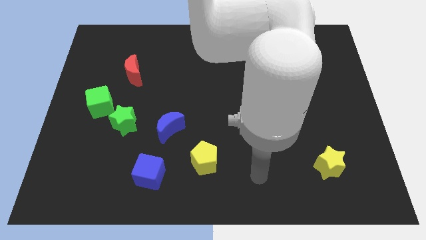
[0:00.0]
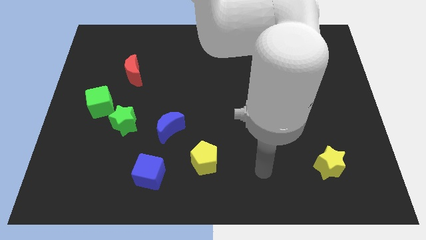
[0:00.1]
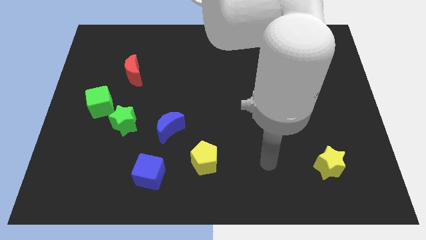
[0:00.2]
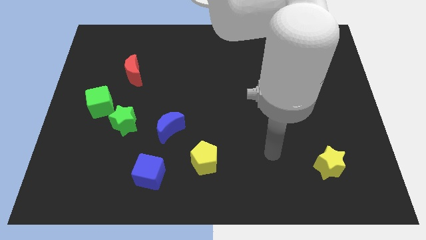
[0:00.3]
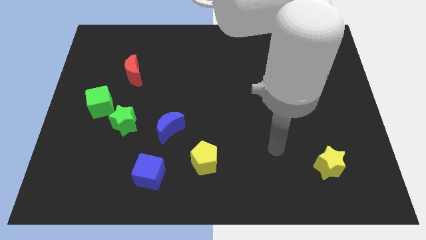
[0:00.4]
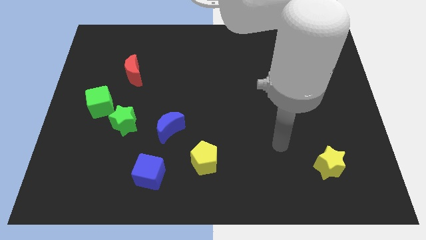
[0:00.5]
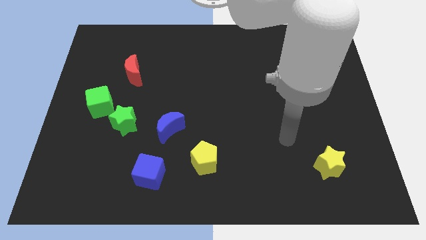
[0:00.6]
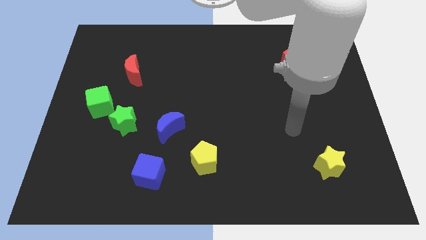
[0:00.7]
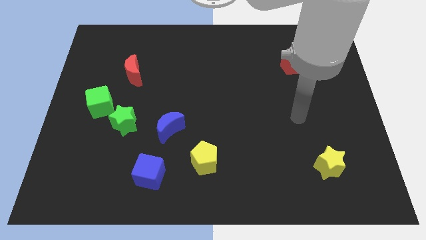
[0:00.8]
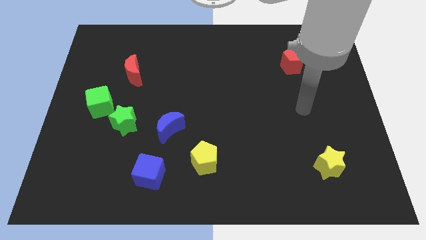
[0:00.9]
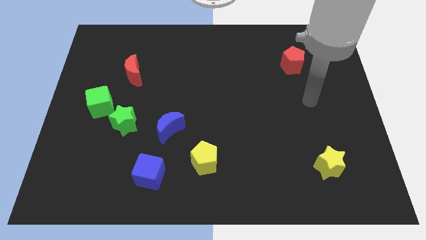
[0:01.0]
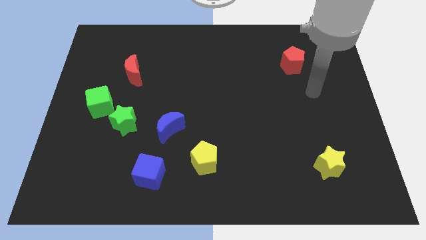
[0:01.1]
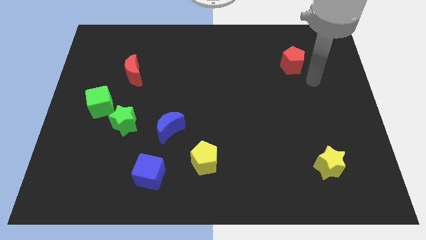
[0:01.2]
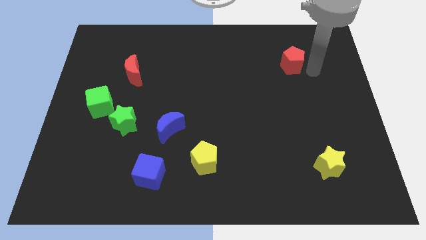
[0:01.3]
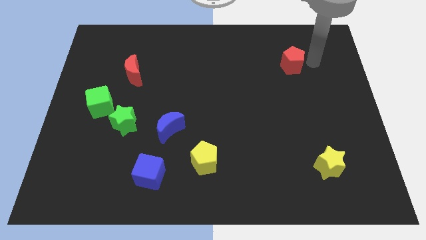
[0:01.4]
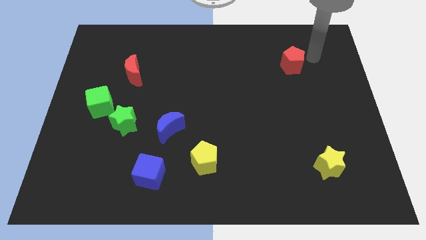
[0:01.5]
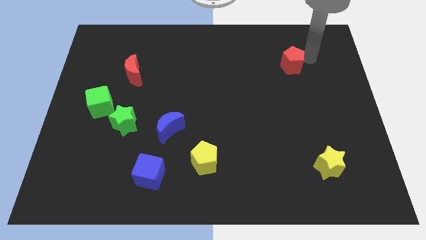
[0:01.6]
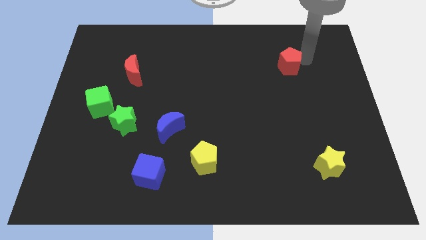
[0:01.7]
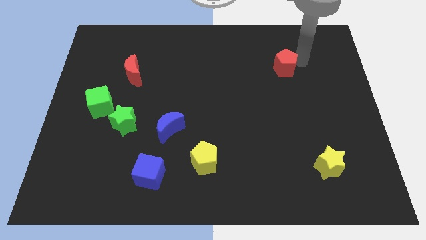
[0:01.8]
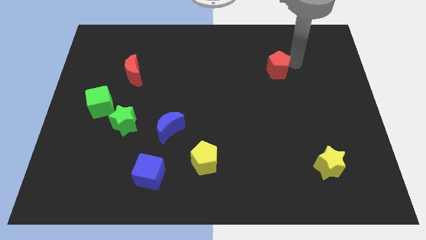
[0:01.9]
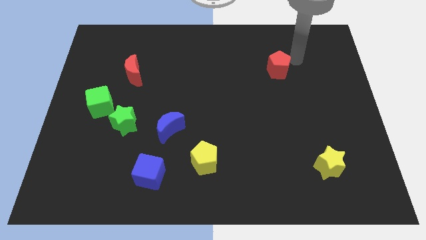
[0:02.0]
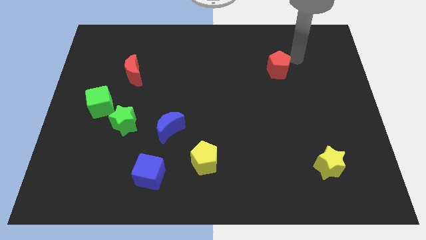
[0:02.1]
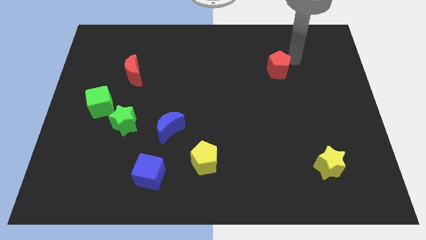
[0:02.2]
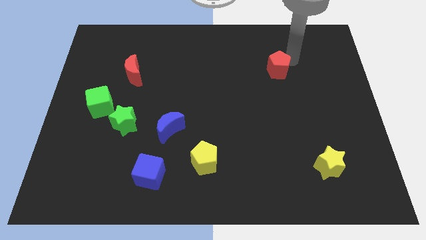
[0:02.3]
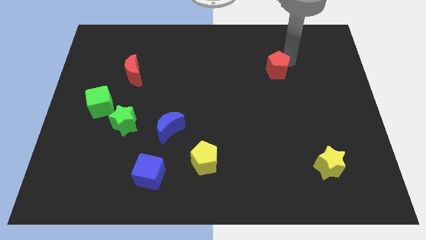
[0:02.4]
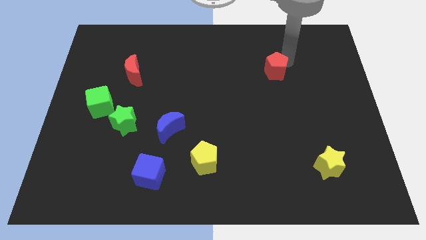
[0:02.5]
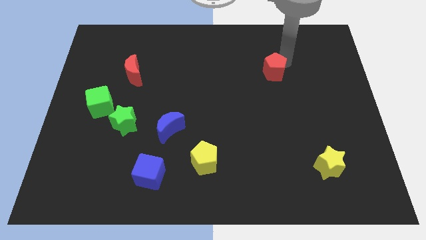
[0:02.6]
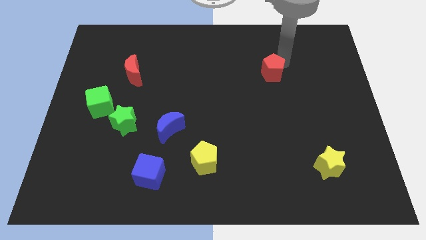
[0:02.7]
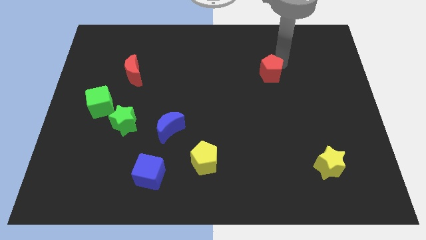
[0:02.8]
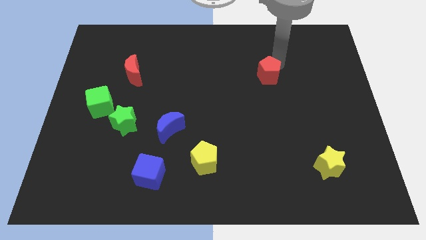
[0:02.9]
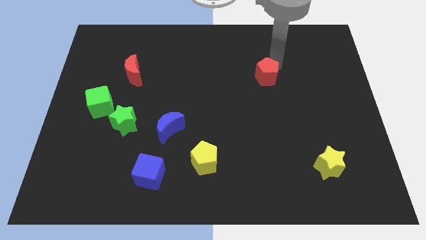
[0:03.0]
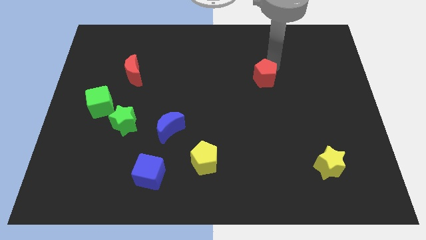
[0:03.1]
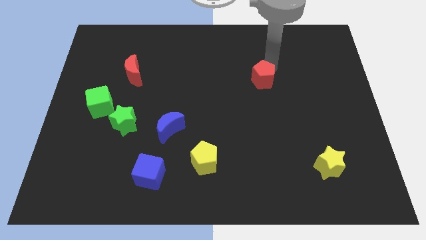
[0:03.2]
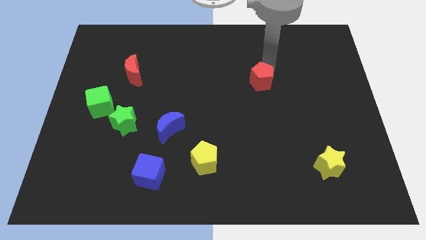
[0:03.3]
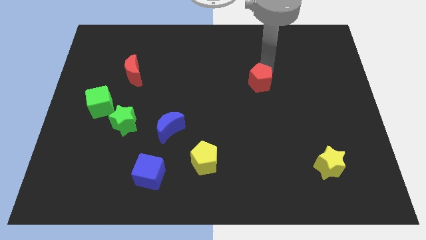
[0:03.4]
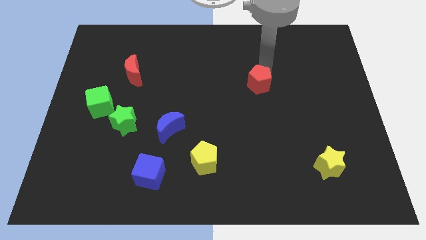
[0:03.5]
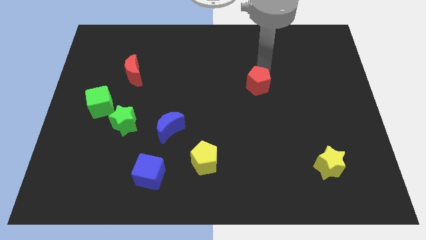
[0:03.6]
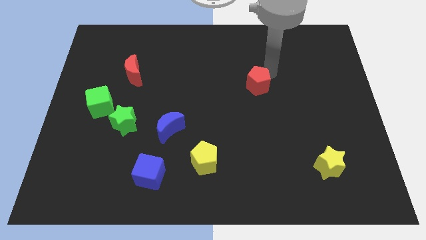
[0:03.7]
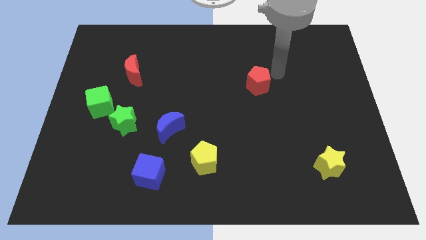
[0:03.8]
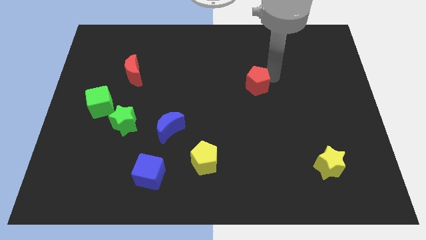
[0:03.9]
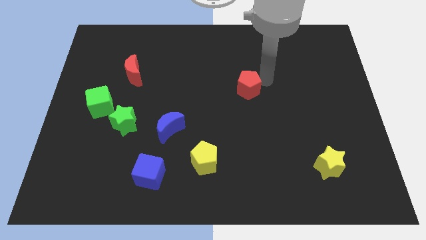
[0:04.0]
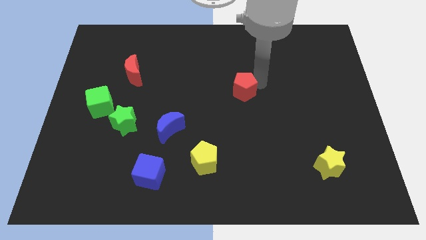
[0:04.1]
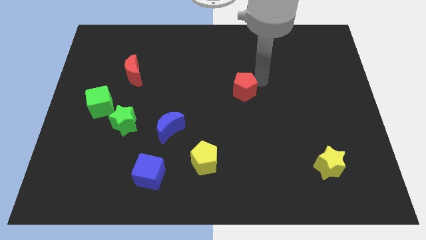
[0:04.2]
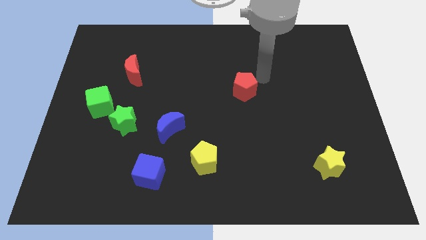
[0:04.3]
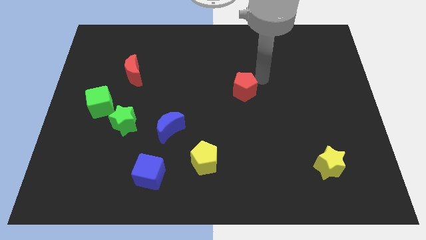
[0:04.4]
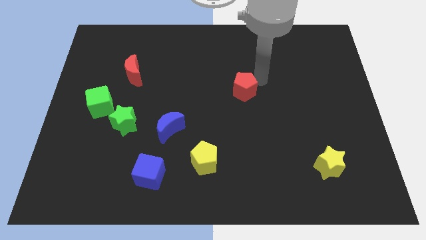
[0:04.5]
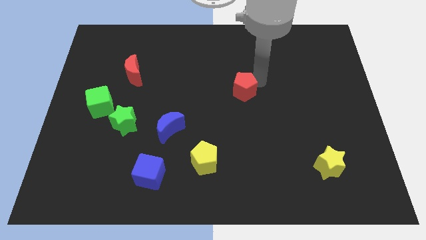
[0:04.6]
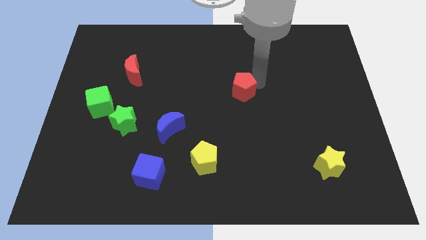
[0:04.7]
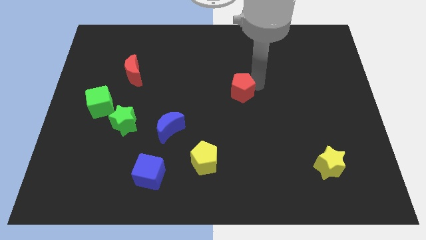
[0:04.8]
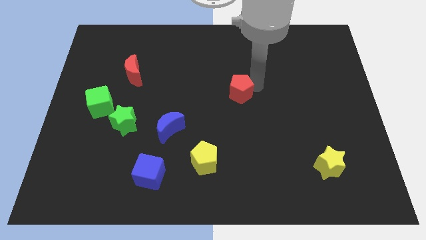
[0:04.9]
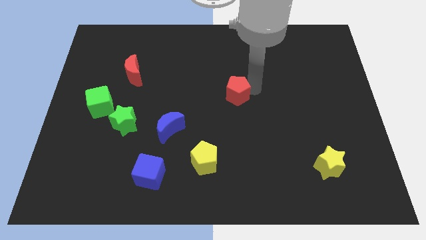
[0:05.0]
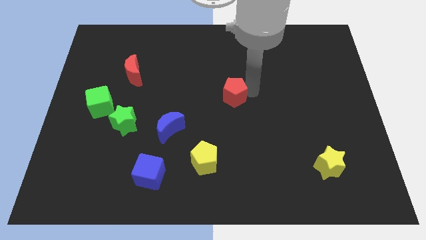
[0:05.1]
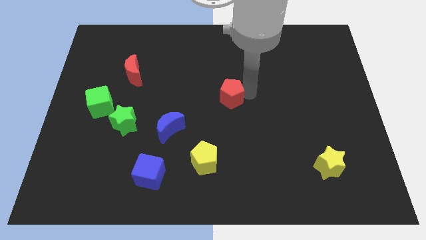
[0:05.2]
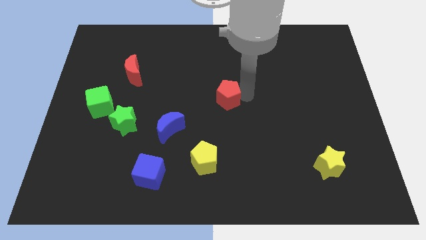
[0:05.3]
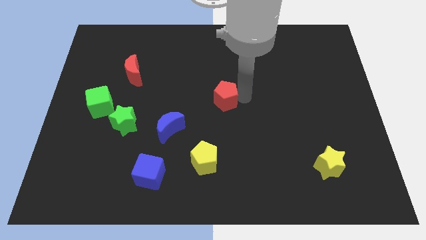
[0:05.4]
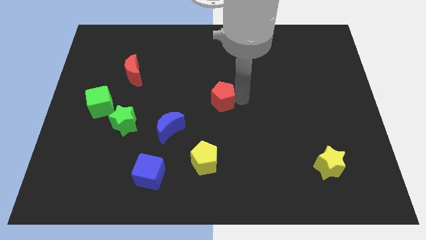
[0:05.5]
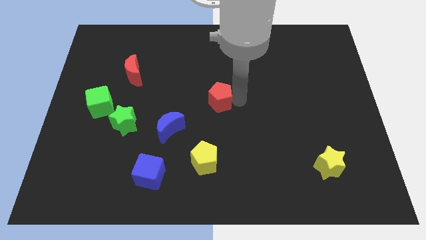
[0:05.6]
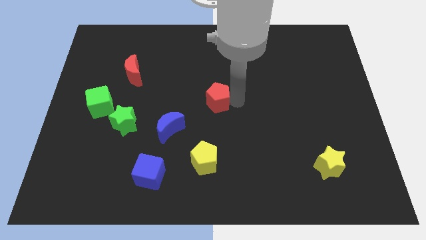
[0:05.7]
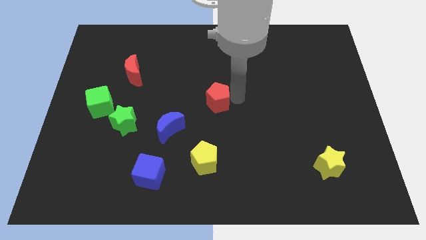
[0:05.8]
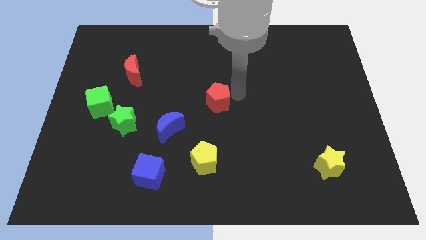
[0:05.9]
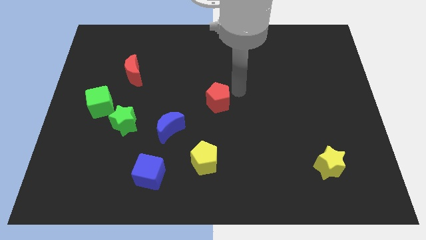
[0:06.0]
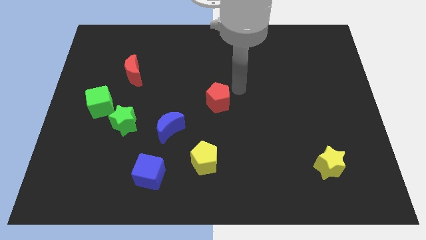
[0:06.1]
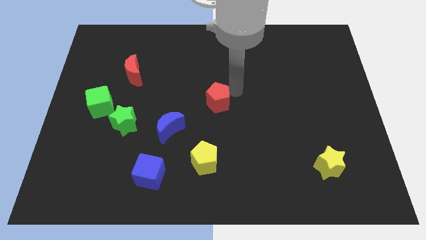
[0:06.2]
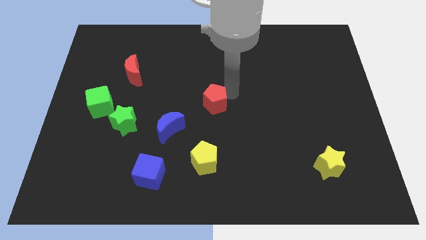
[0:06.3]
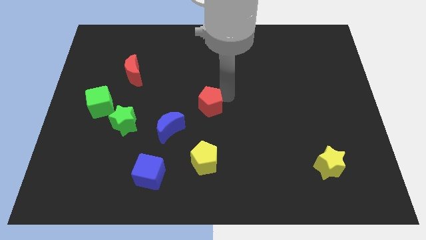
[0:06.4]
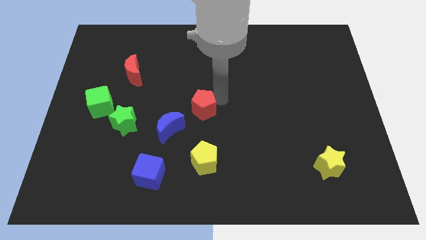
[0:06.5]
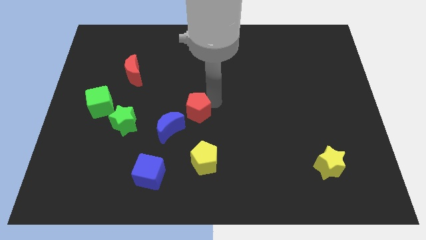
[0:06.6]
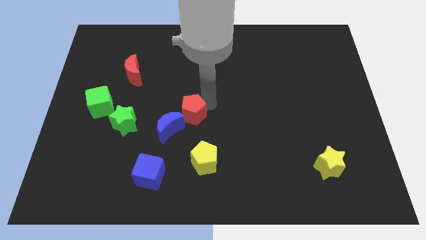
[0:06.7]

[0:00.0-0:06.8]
push the red pentagon to the right of the green star
